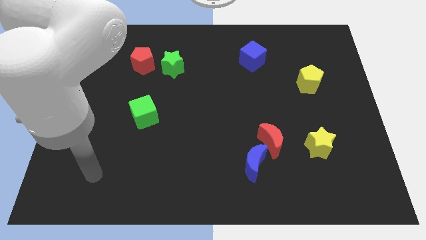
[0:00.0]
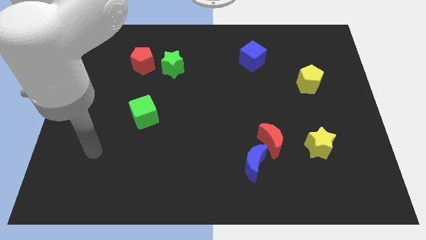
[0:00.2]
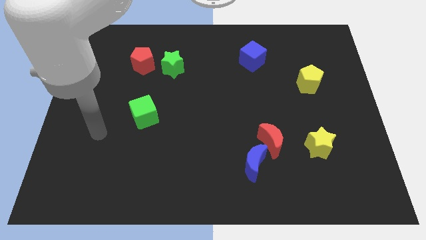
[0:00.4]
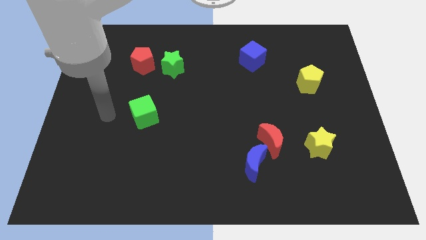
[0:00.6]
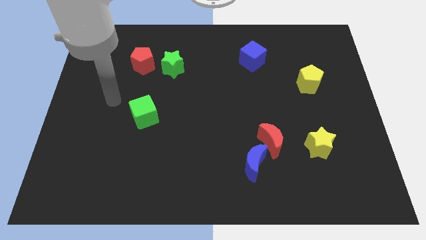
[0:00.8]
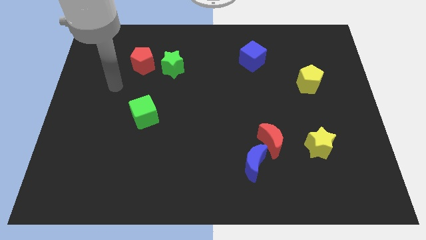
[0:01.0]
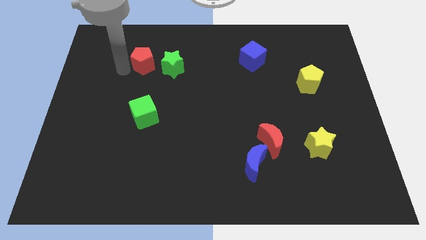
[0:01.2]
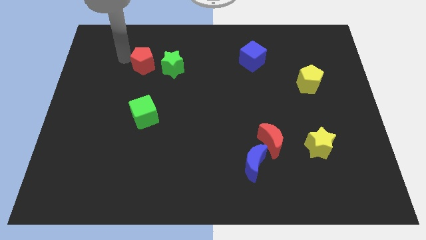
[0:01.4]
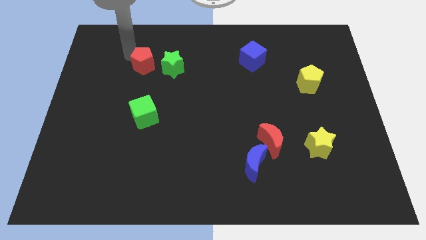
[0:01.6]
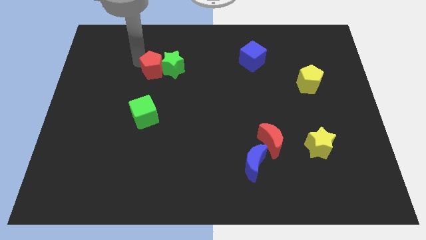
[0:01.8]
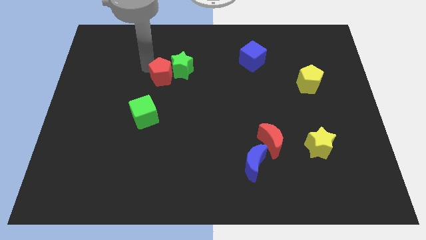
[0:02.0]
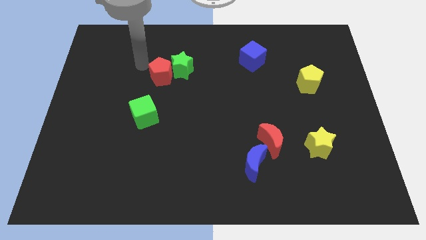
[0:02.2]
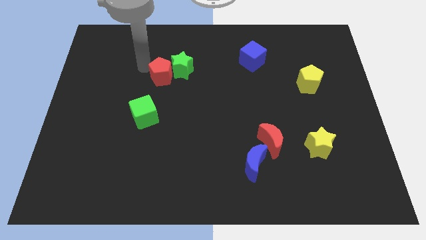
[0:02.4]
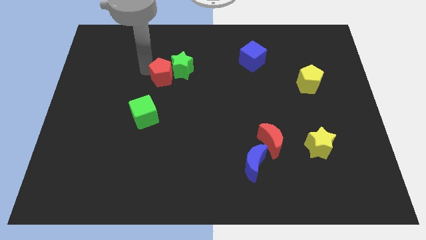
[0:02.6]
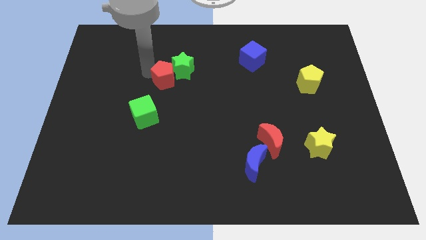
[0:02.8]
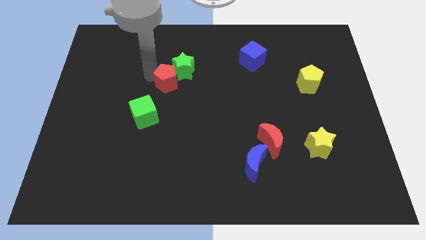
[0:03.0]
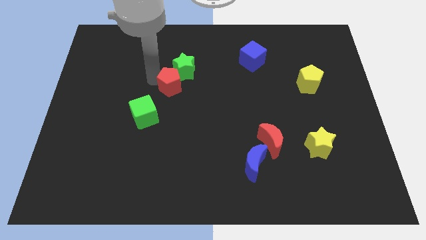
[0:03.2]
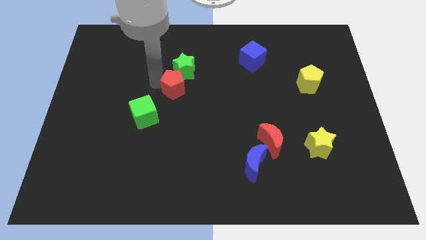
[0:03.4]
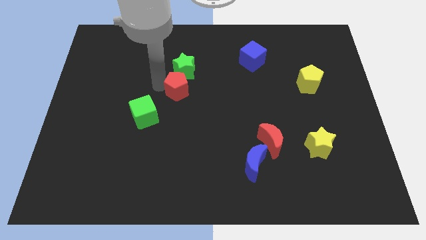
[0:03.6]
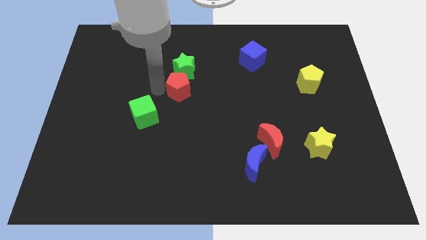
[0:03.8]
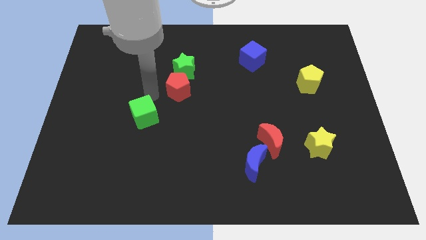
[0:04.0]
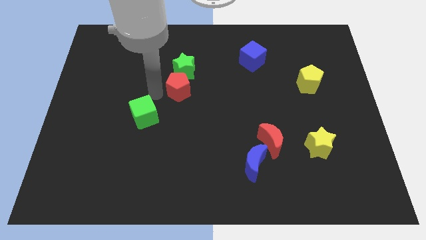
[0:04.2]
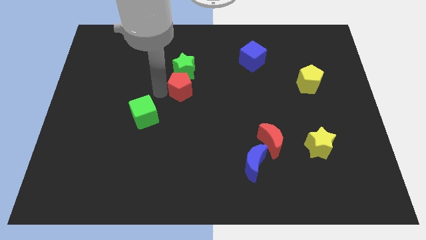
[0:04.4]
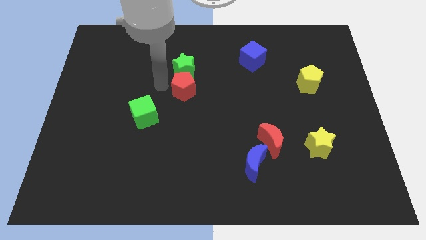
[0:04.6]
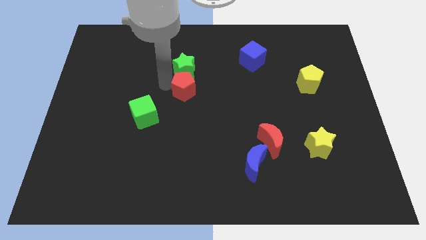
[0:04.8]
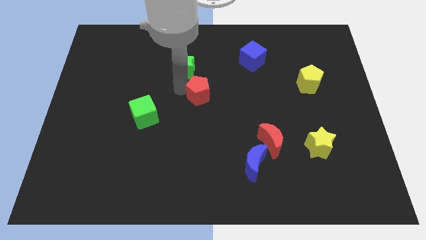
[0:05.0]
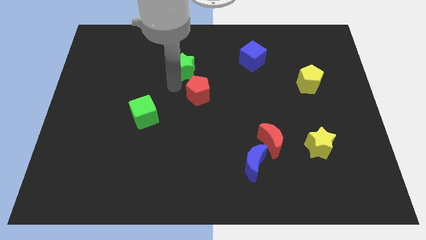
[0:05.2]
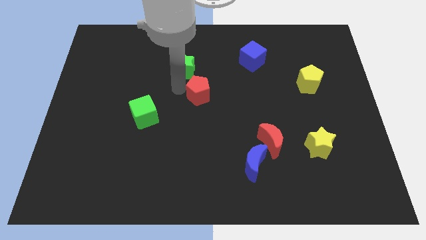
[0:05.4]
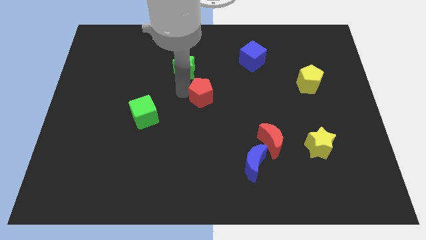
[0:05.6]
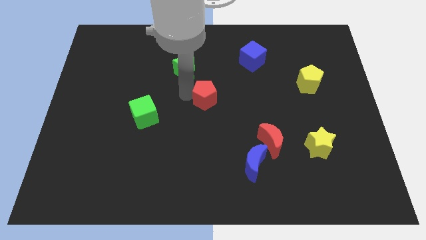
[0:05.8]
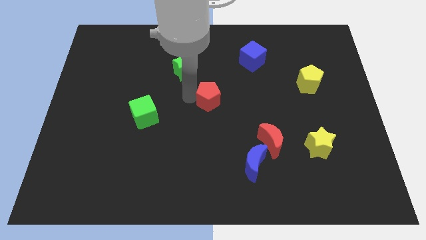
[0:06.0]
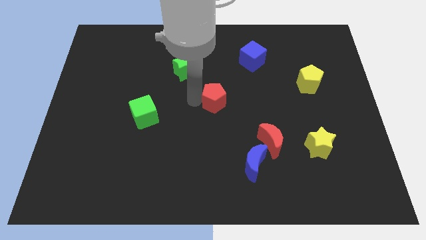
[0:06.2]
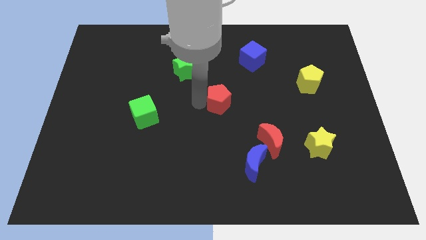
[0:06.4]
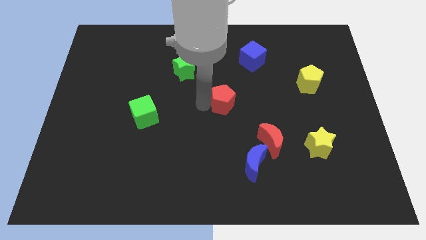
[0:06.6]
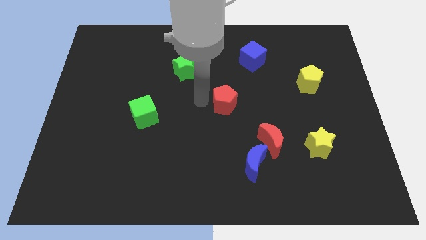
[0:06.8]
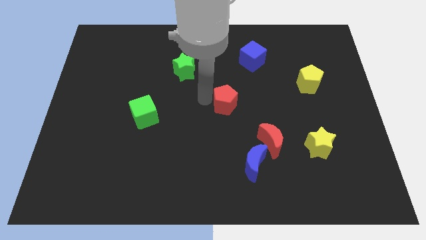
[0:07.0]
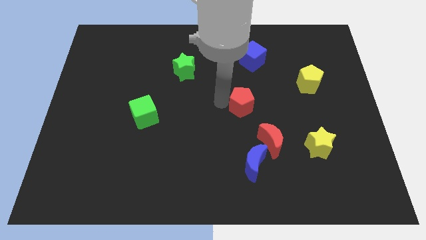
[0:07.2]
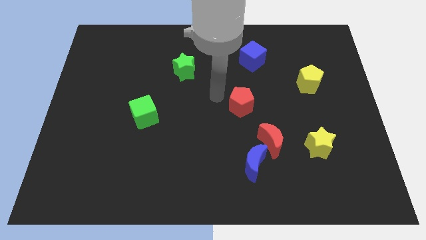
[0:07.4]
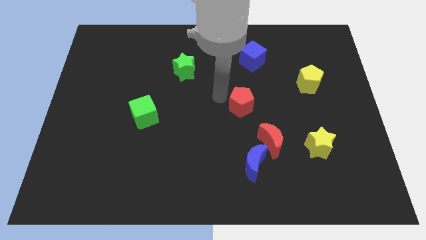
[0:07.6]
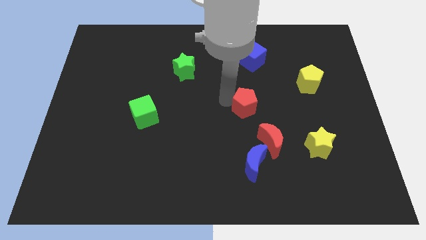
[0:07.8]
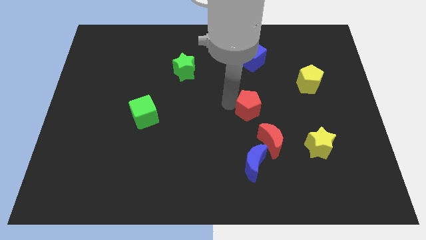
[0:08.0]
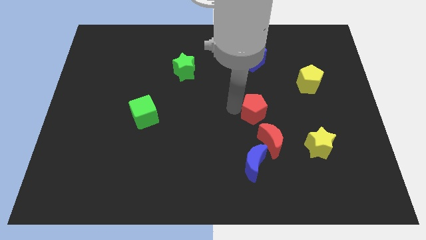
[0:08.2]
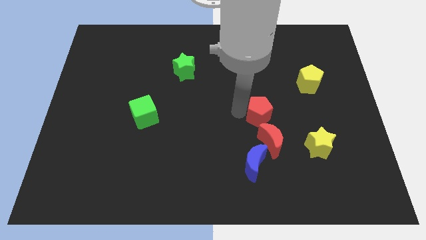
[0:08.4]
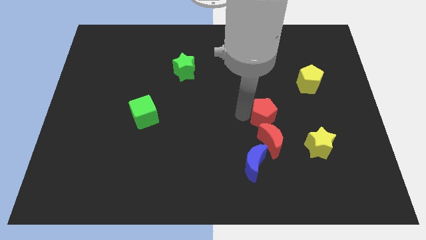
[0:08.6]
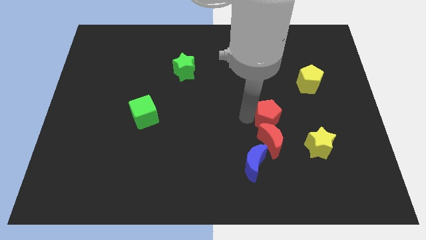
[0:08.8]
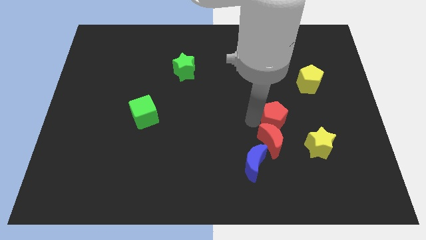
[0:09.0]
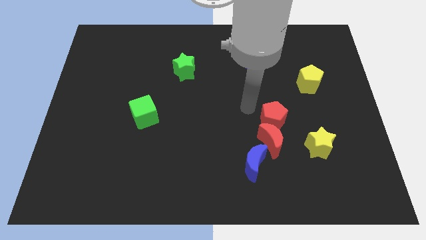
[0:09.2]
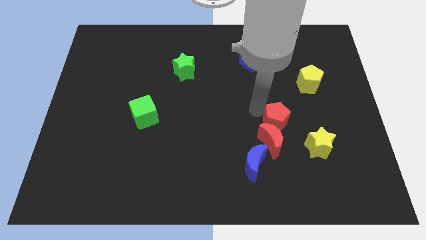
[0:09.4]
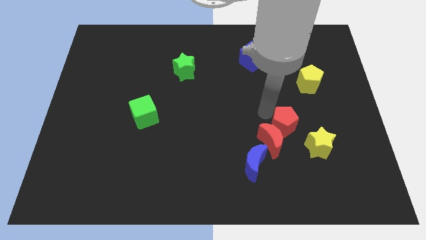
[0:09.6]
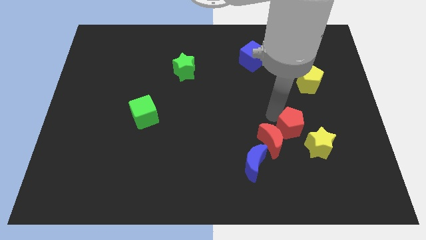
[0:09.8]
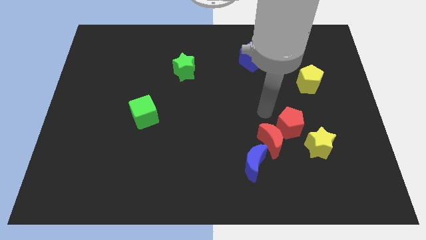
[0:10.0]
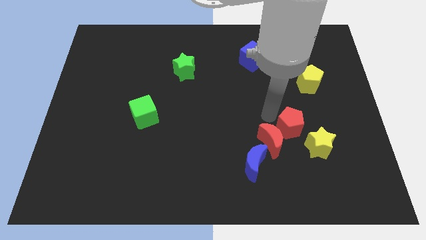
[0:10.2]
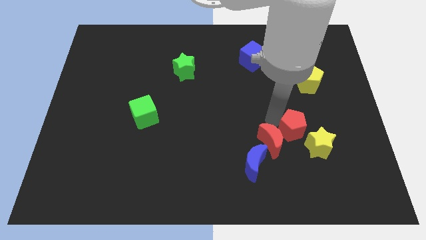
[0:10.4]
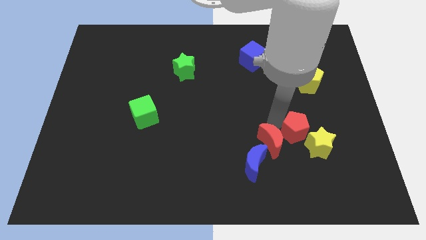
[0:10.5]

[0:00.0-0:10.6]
move the red pentagon to the yellow star

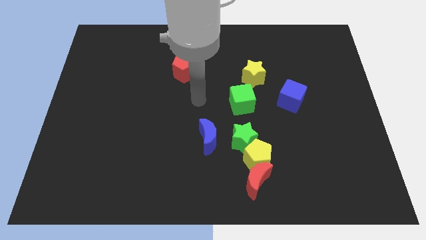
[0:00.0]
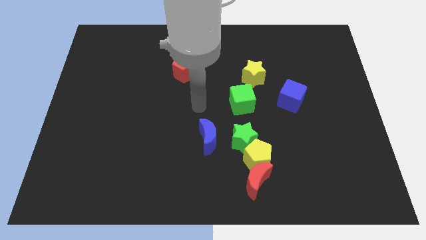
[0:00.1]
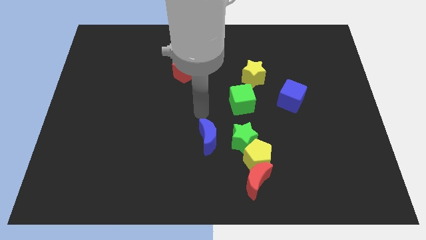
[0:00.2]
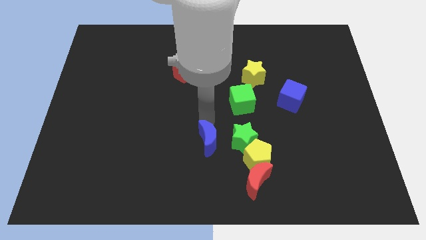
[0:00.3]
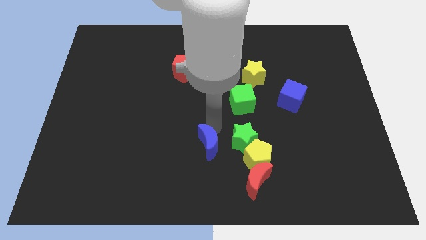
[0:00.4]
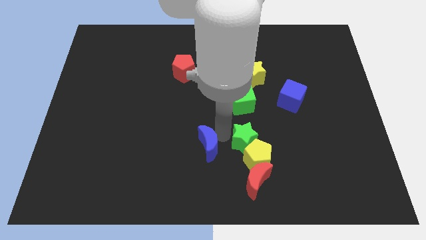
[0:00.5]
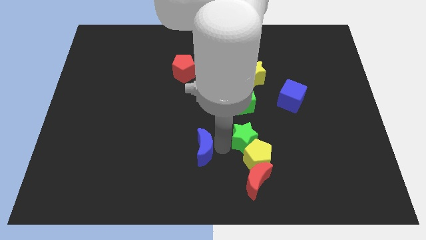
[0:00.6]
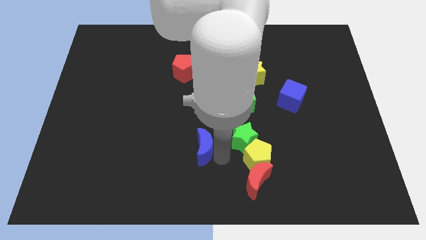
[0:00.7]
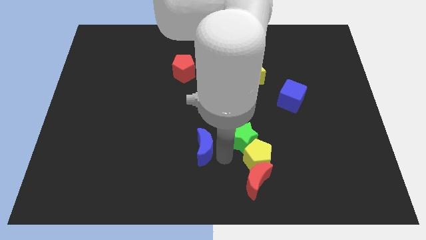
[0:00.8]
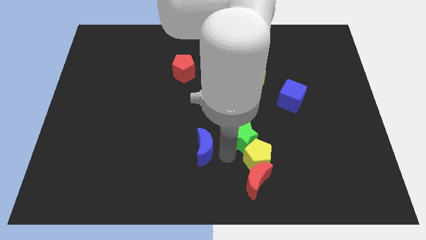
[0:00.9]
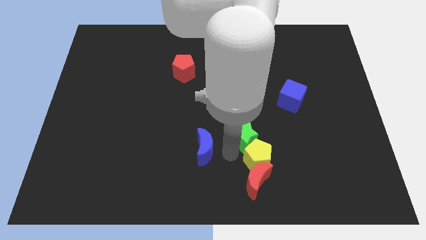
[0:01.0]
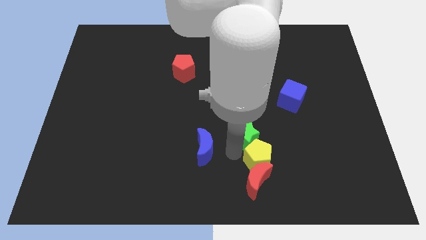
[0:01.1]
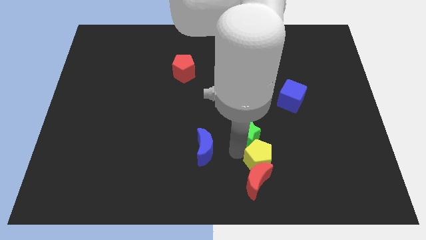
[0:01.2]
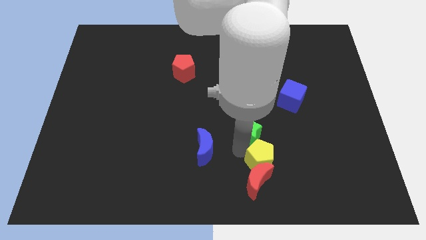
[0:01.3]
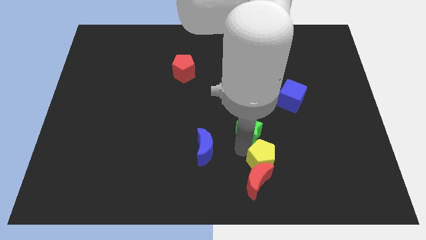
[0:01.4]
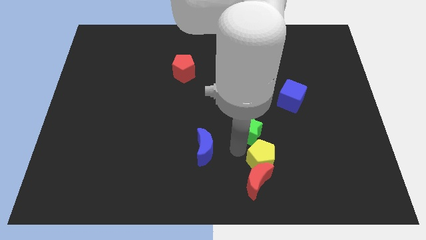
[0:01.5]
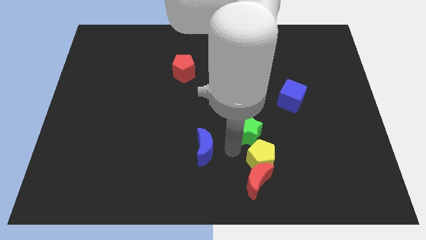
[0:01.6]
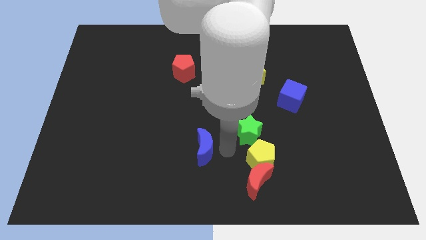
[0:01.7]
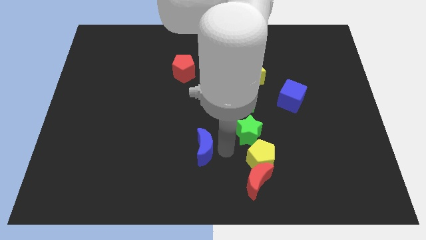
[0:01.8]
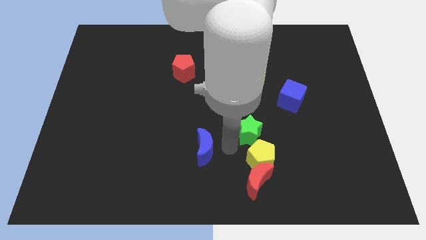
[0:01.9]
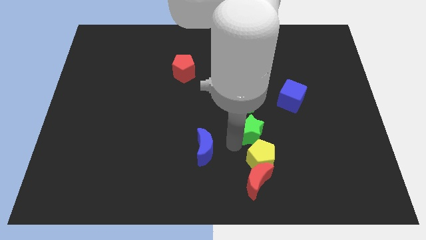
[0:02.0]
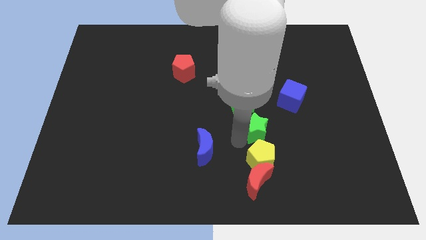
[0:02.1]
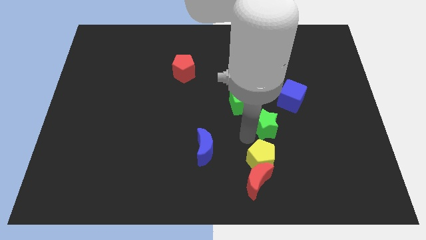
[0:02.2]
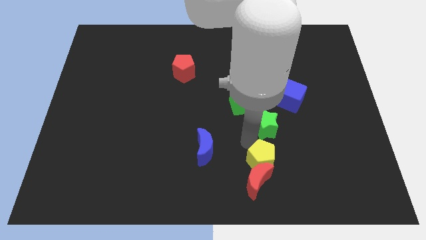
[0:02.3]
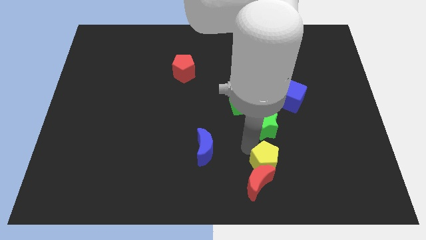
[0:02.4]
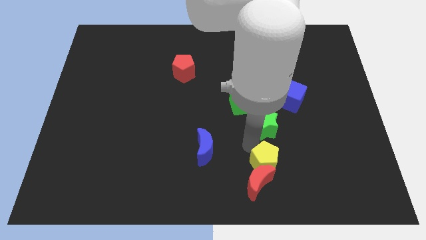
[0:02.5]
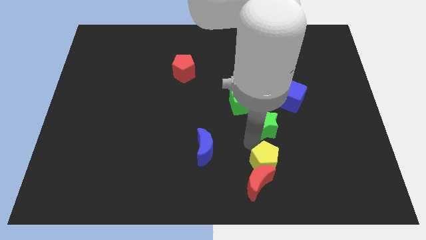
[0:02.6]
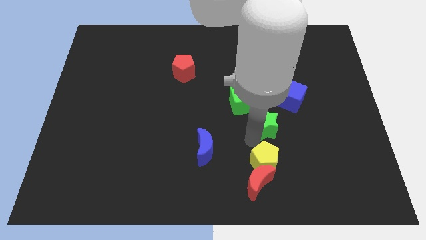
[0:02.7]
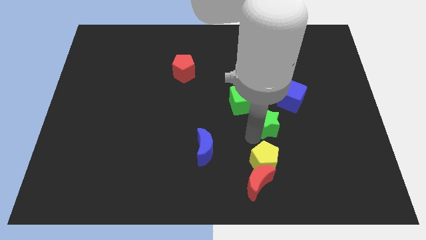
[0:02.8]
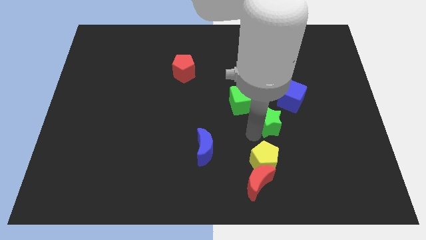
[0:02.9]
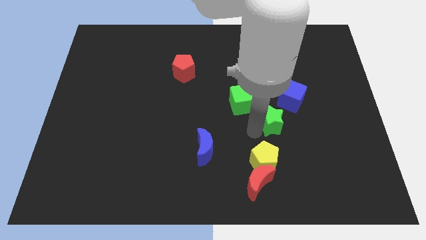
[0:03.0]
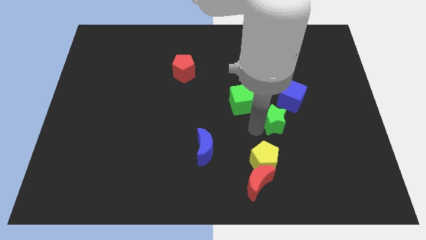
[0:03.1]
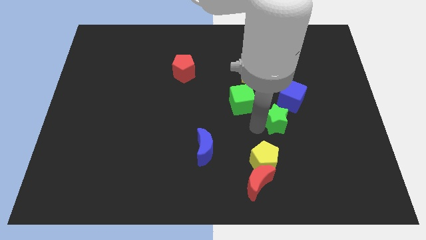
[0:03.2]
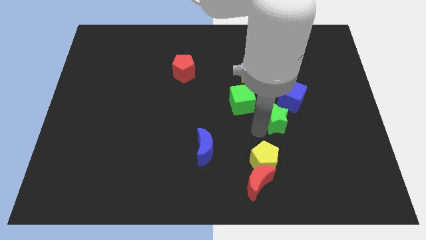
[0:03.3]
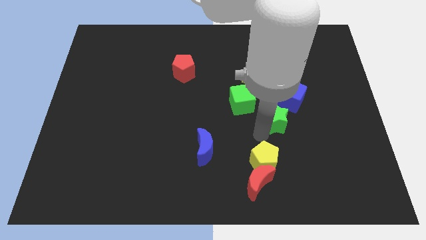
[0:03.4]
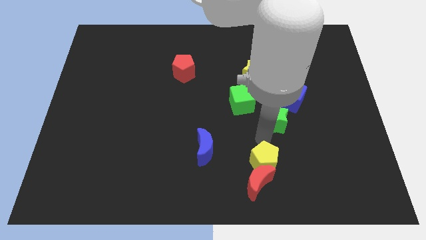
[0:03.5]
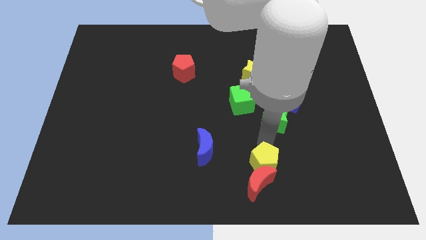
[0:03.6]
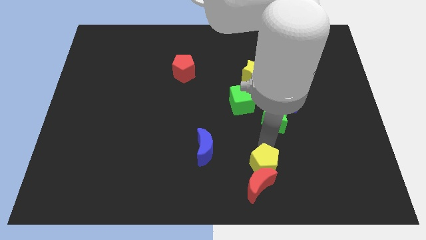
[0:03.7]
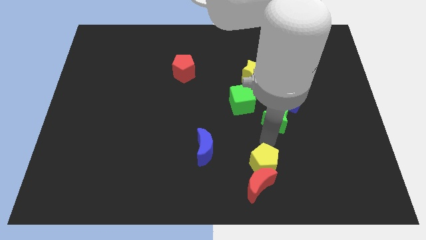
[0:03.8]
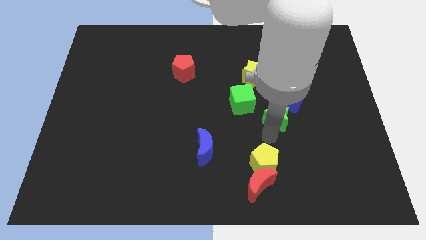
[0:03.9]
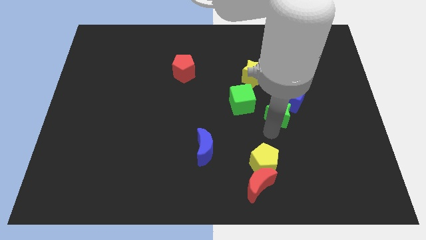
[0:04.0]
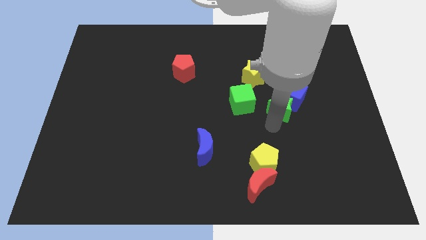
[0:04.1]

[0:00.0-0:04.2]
put the green star next to the blue cube
